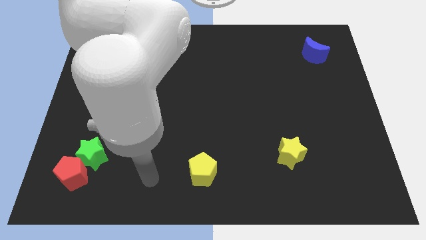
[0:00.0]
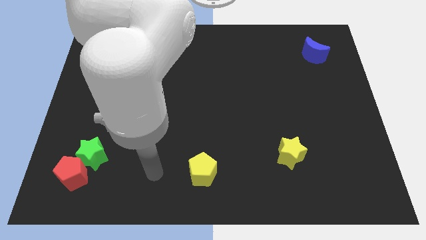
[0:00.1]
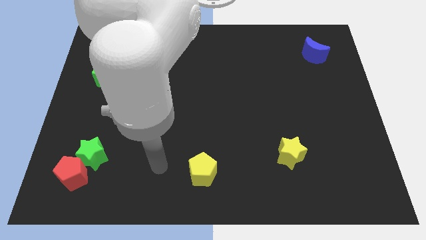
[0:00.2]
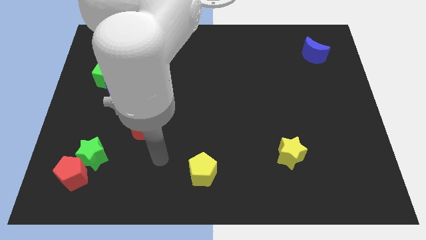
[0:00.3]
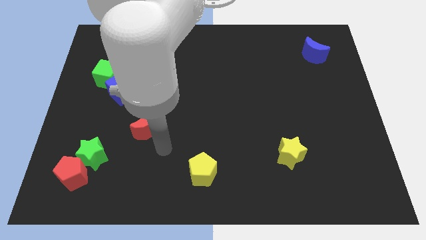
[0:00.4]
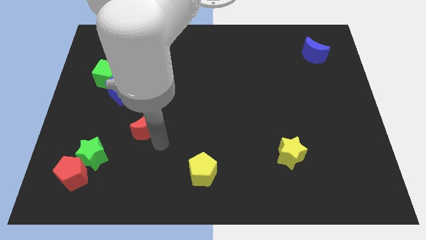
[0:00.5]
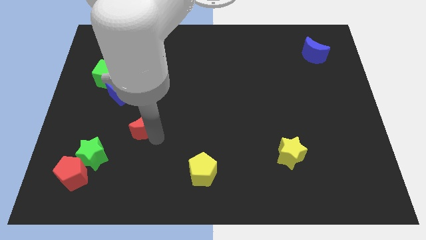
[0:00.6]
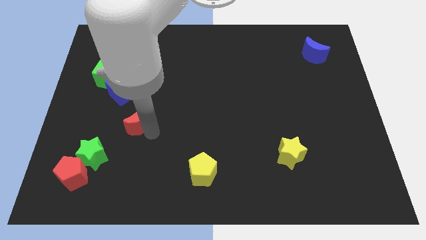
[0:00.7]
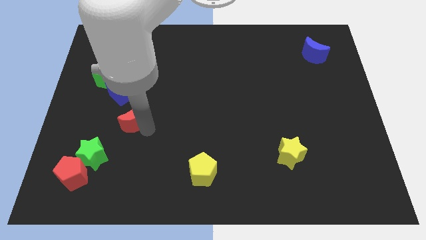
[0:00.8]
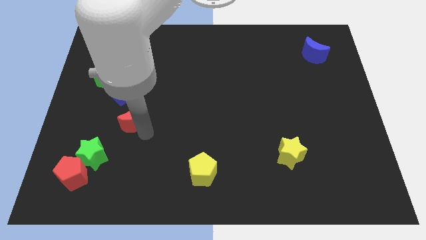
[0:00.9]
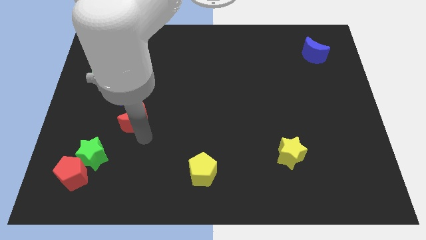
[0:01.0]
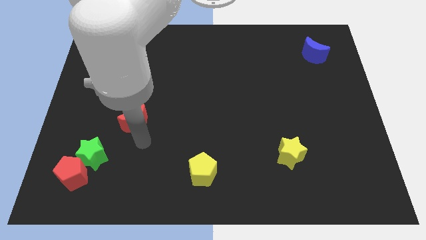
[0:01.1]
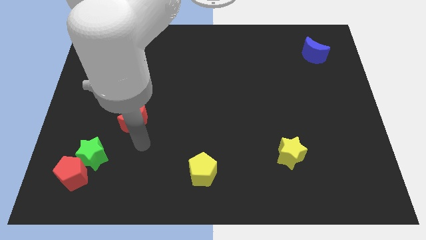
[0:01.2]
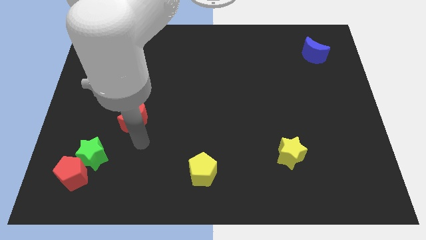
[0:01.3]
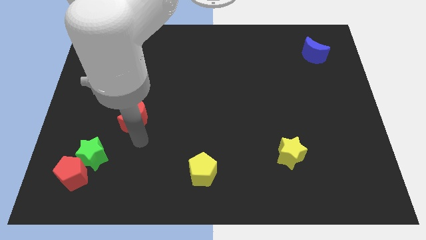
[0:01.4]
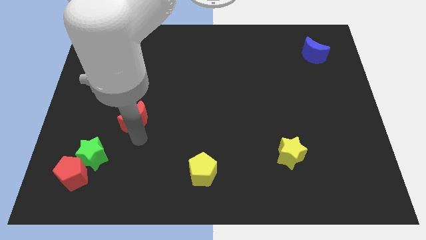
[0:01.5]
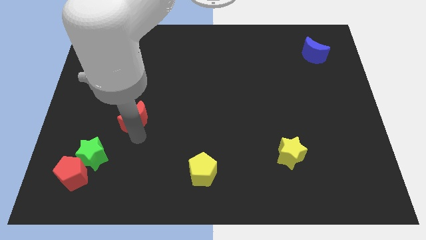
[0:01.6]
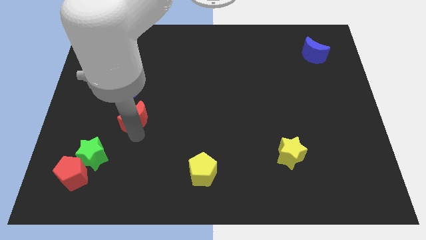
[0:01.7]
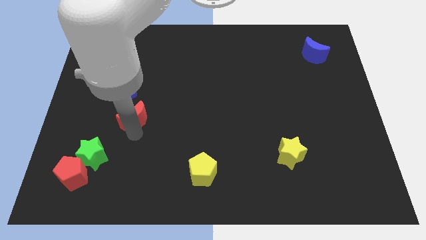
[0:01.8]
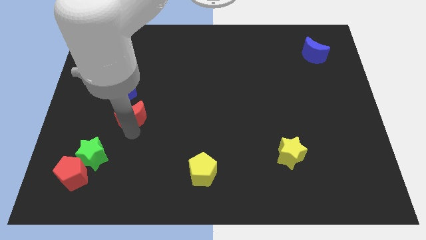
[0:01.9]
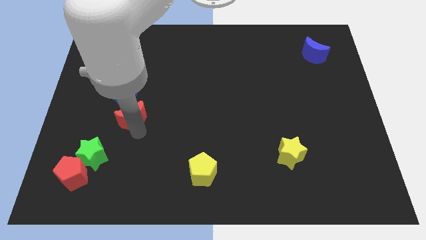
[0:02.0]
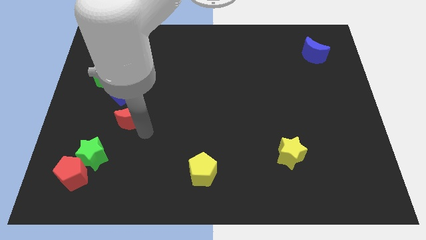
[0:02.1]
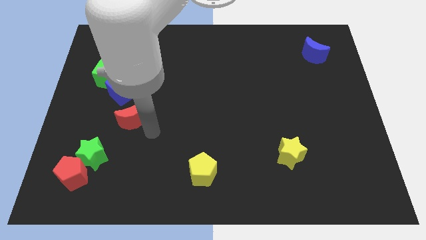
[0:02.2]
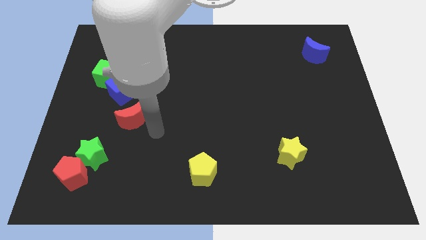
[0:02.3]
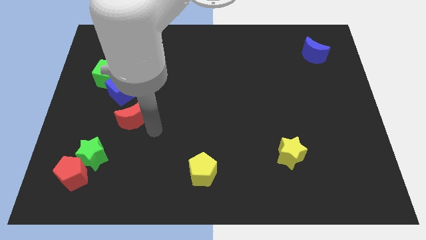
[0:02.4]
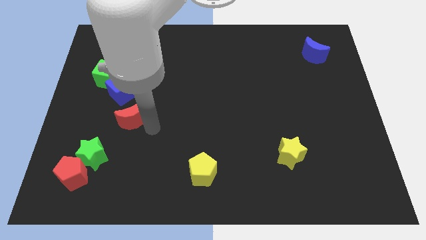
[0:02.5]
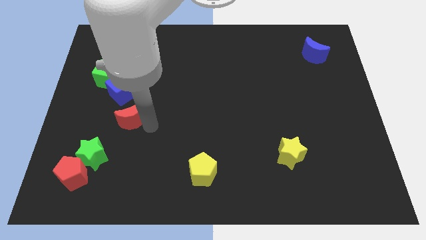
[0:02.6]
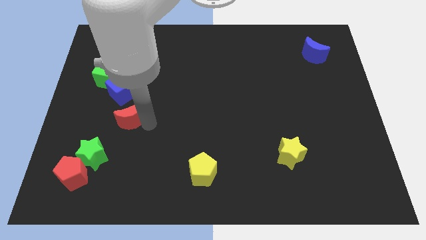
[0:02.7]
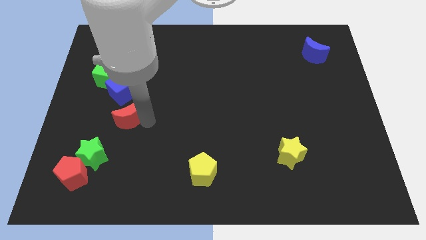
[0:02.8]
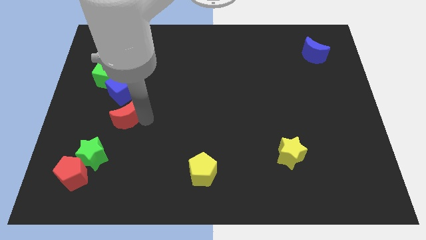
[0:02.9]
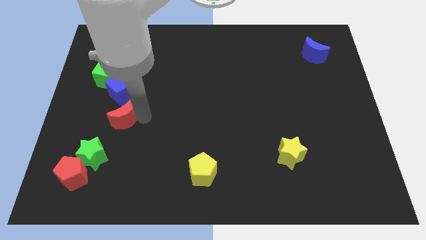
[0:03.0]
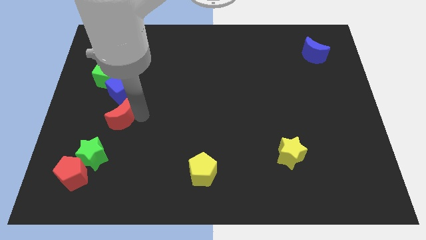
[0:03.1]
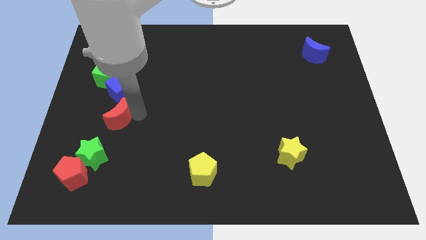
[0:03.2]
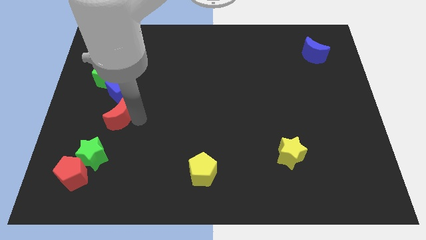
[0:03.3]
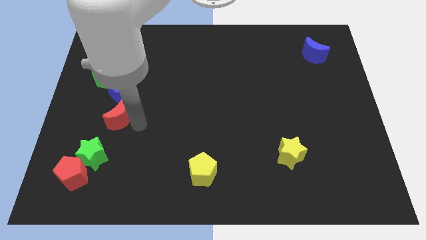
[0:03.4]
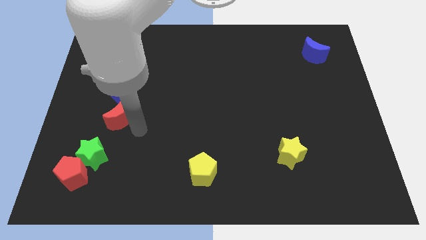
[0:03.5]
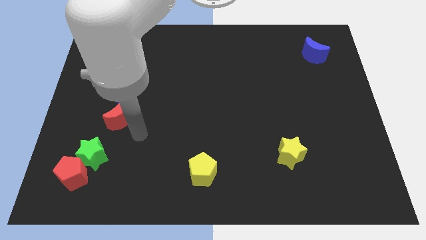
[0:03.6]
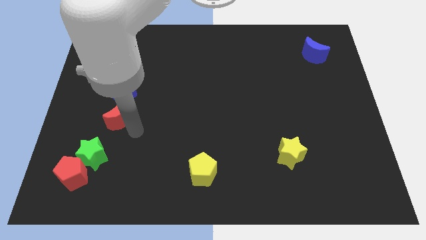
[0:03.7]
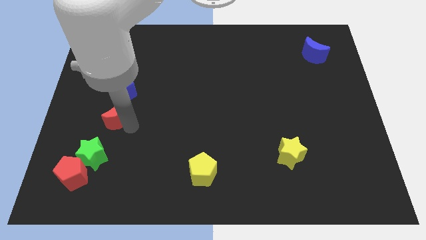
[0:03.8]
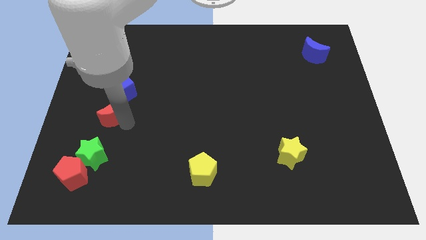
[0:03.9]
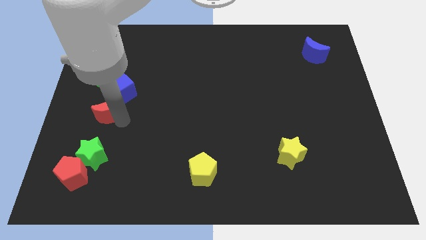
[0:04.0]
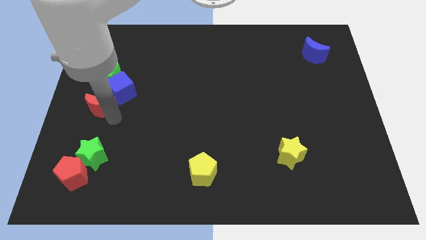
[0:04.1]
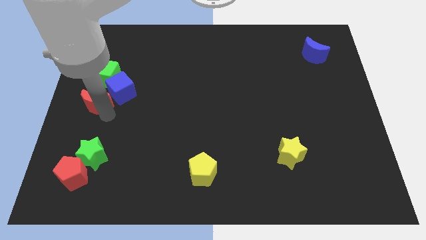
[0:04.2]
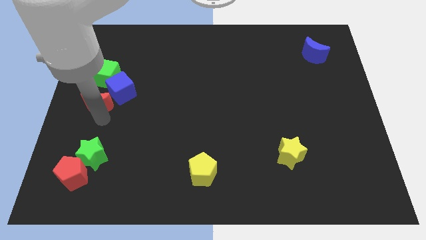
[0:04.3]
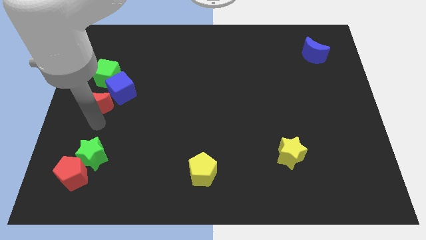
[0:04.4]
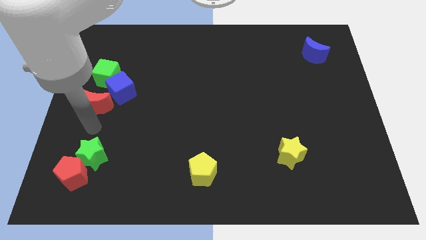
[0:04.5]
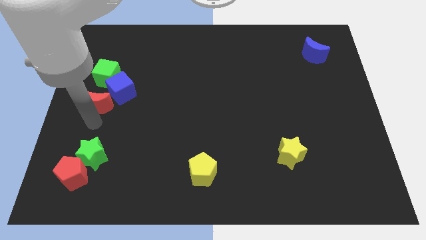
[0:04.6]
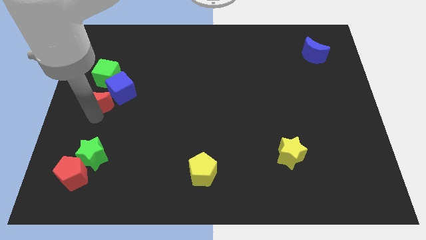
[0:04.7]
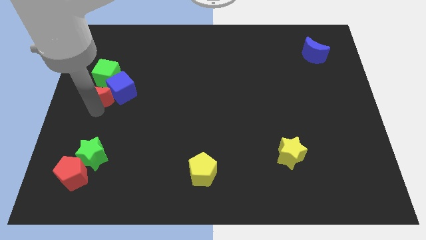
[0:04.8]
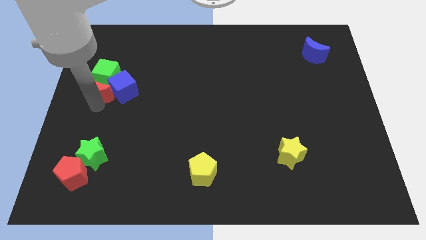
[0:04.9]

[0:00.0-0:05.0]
push the red moon next to the green cube

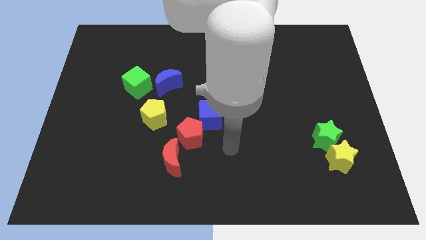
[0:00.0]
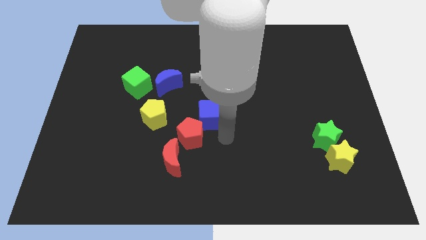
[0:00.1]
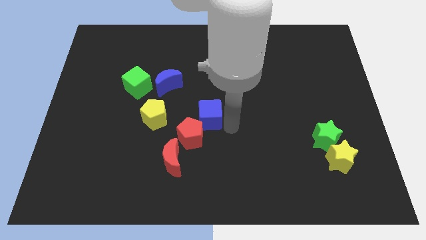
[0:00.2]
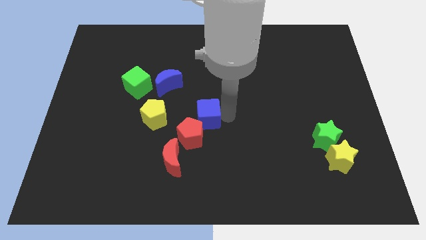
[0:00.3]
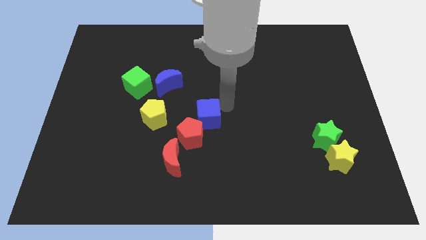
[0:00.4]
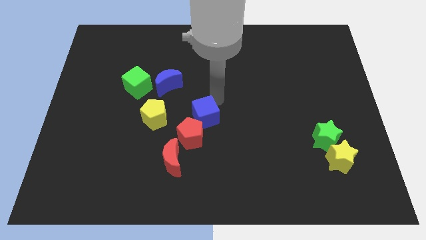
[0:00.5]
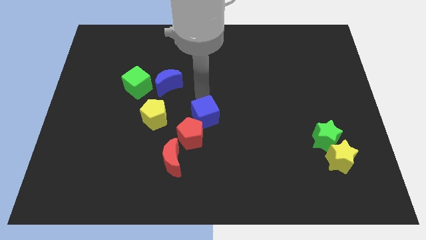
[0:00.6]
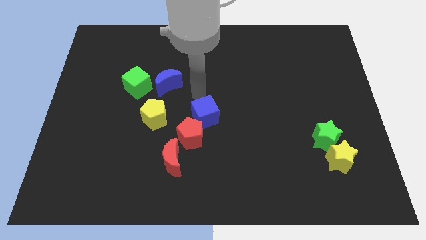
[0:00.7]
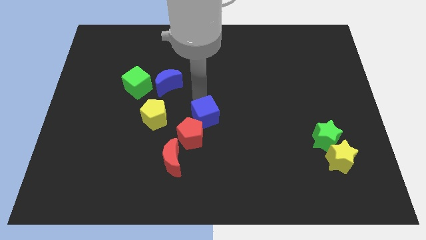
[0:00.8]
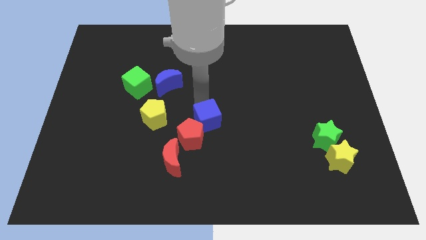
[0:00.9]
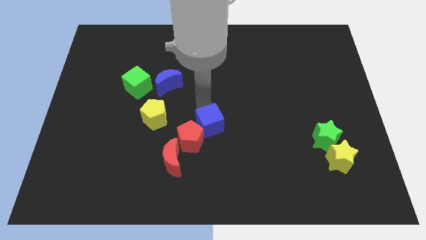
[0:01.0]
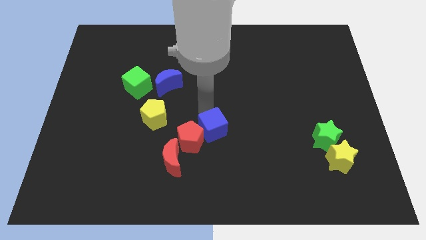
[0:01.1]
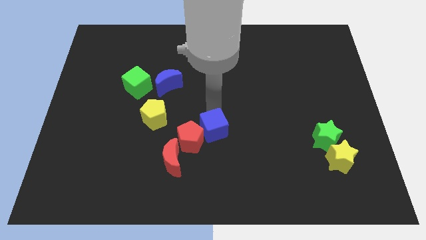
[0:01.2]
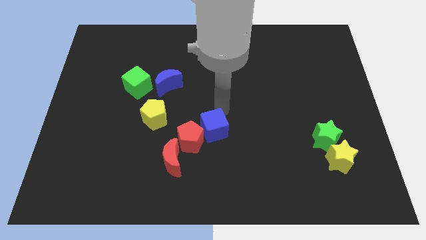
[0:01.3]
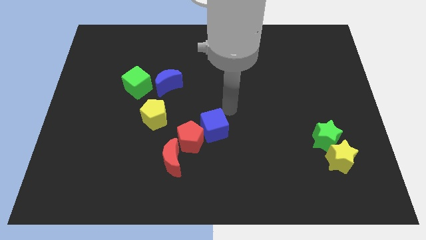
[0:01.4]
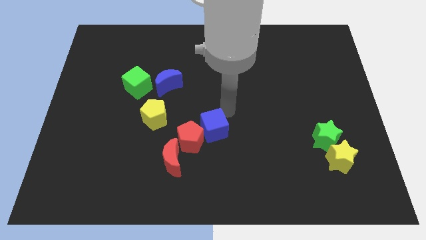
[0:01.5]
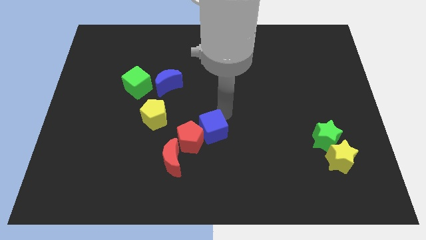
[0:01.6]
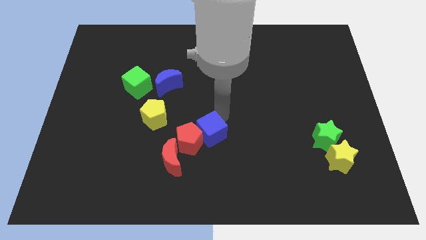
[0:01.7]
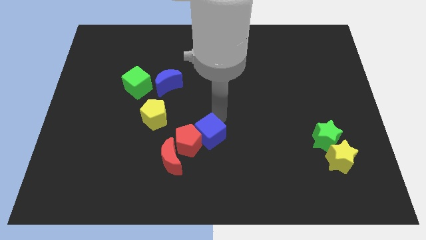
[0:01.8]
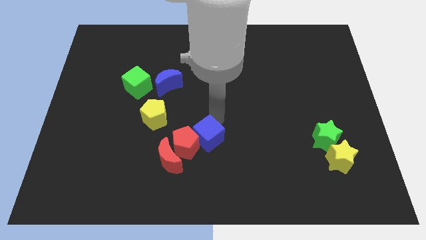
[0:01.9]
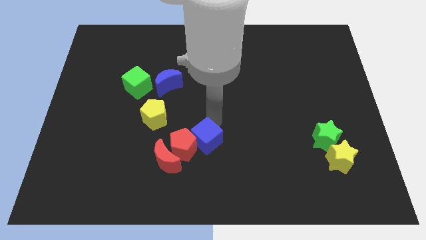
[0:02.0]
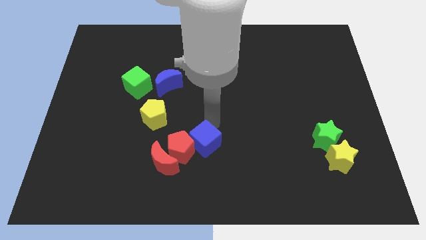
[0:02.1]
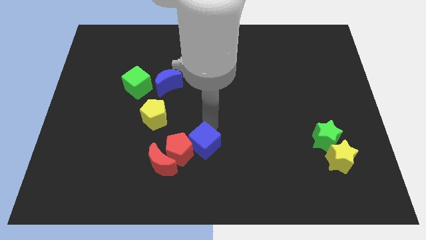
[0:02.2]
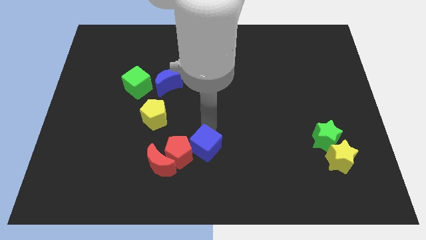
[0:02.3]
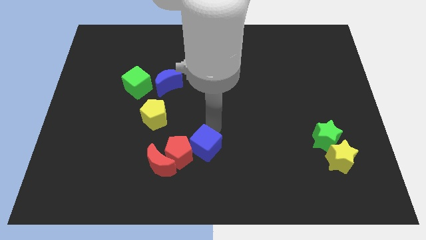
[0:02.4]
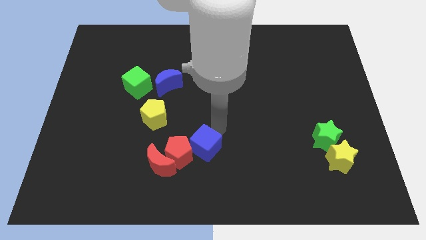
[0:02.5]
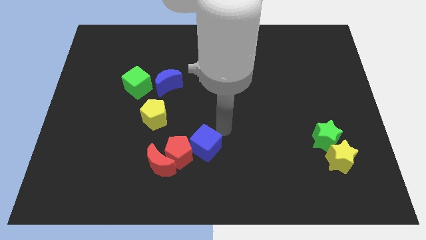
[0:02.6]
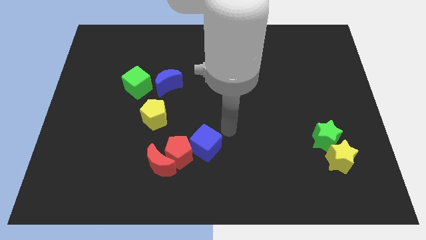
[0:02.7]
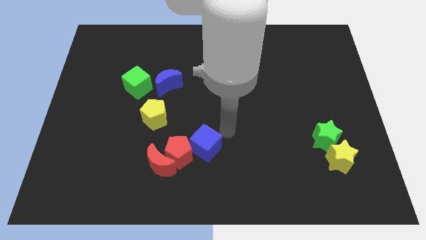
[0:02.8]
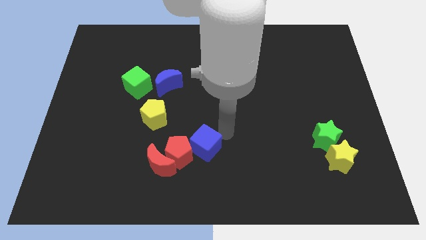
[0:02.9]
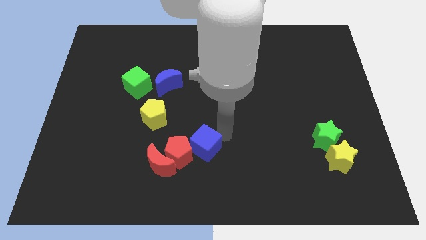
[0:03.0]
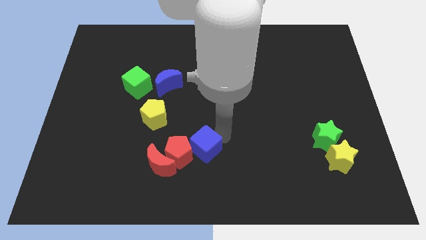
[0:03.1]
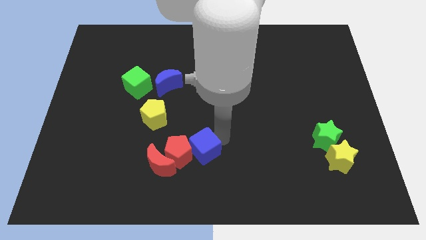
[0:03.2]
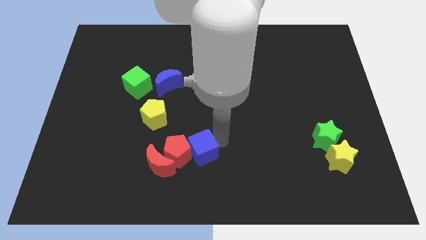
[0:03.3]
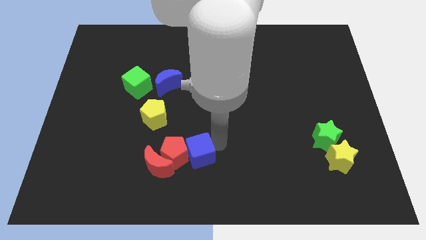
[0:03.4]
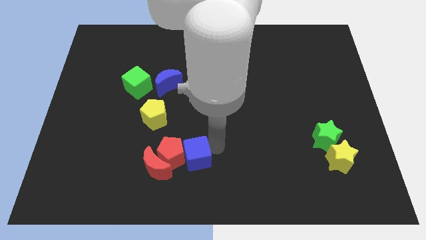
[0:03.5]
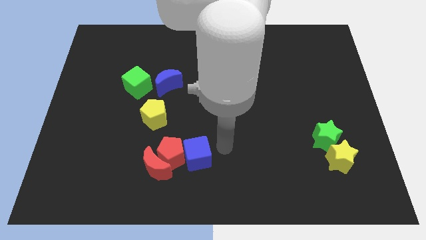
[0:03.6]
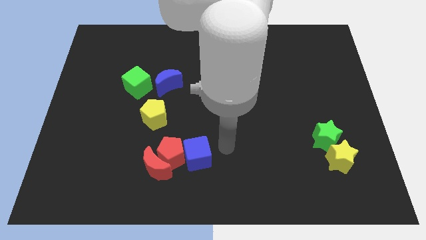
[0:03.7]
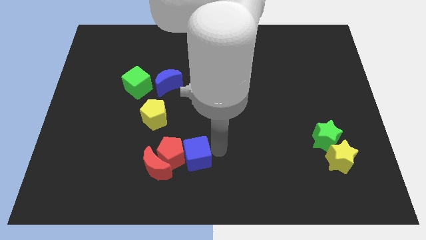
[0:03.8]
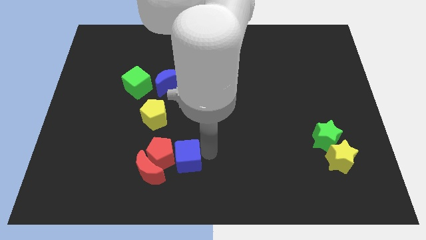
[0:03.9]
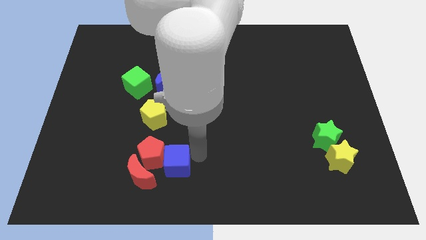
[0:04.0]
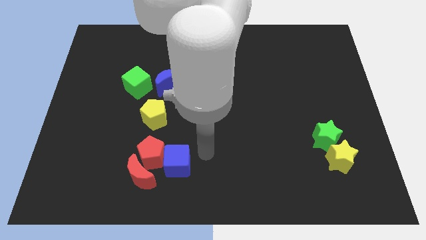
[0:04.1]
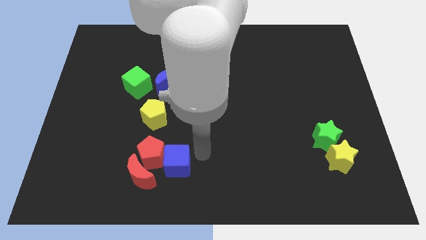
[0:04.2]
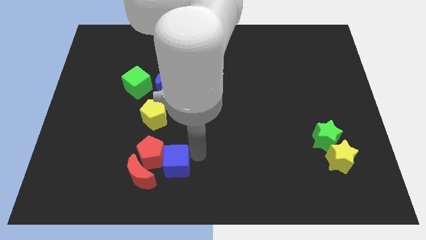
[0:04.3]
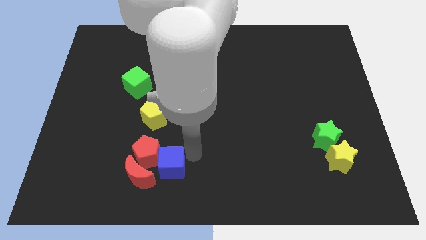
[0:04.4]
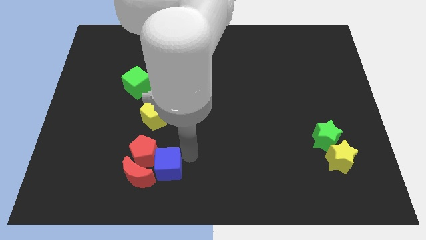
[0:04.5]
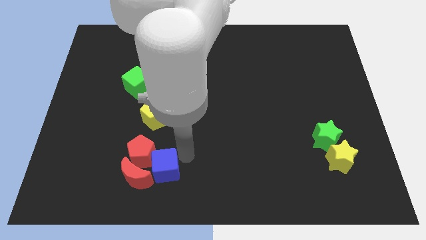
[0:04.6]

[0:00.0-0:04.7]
put the blue cube to the red moon
